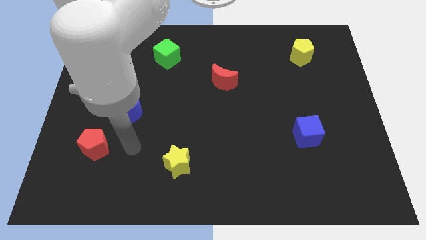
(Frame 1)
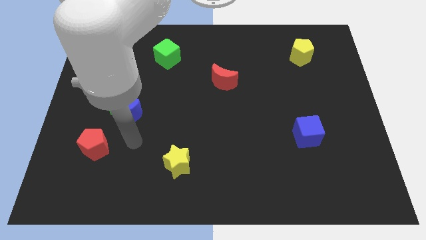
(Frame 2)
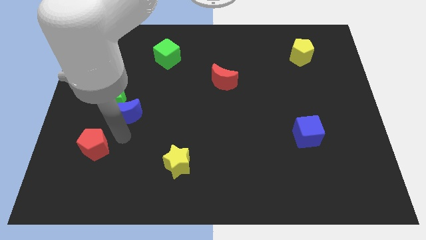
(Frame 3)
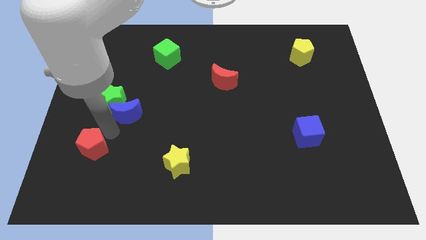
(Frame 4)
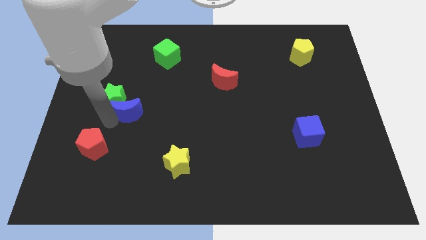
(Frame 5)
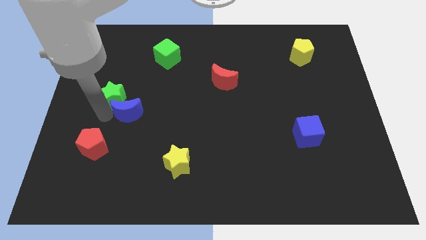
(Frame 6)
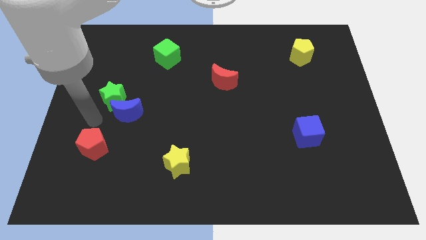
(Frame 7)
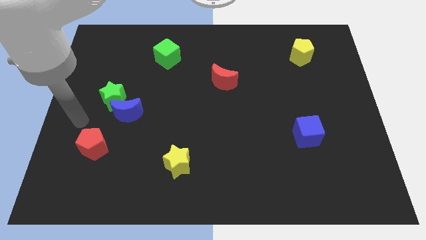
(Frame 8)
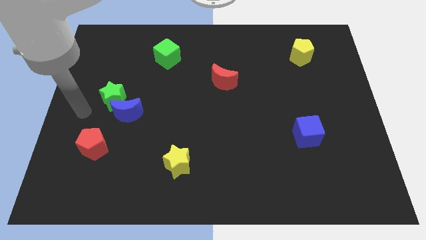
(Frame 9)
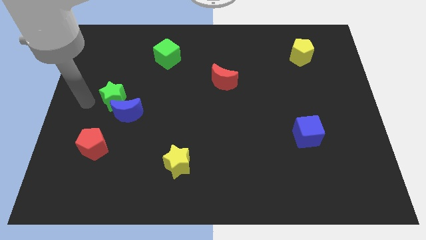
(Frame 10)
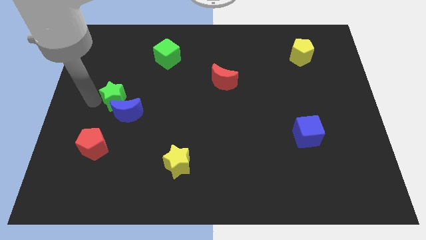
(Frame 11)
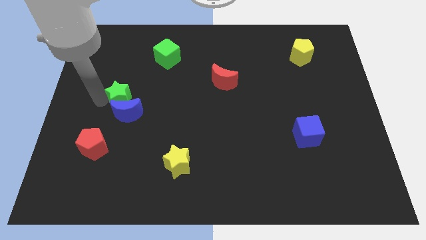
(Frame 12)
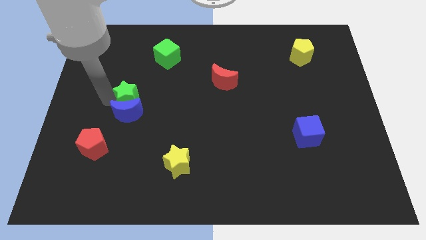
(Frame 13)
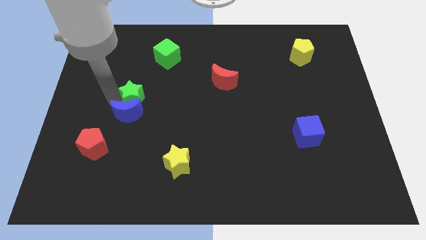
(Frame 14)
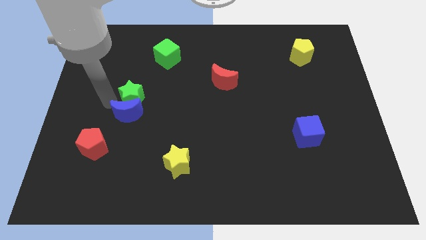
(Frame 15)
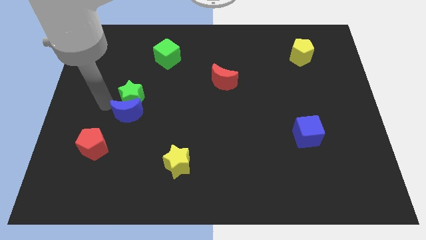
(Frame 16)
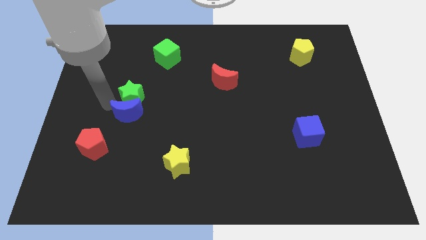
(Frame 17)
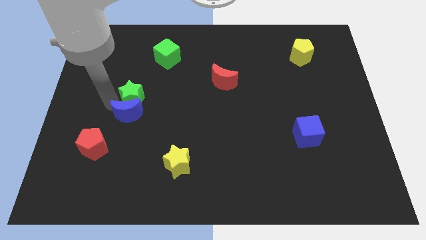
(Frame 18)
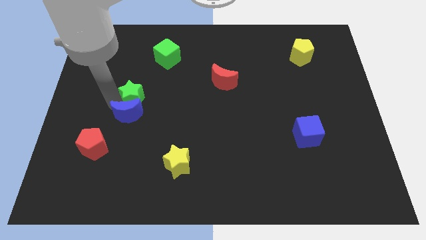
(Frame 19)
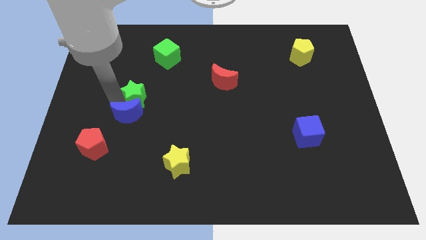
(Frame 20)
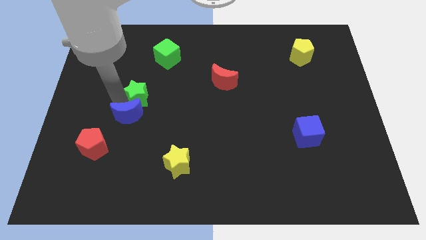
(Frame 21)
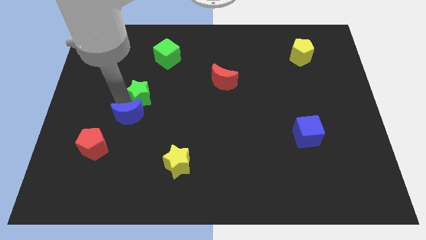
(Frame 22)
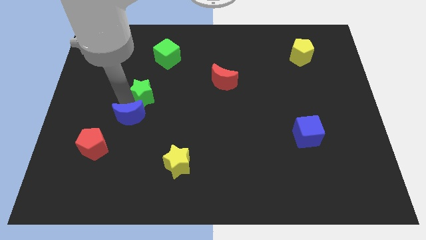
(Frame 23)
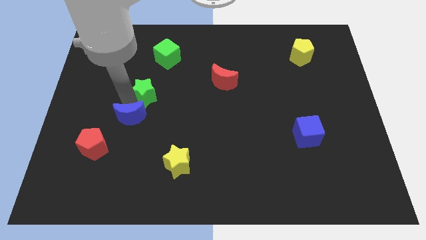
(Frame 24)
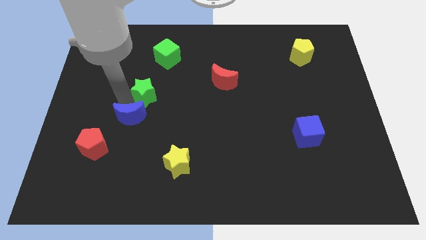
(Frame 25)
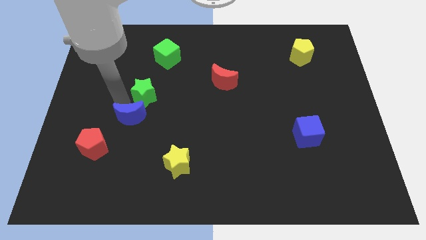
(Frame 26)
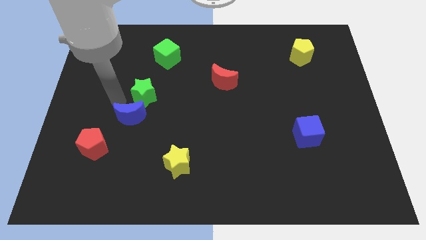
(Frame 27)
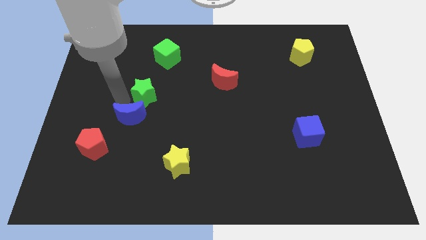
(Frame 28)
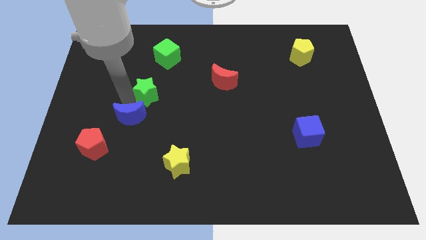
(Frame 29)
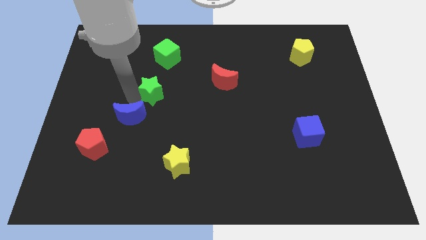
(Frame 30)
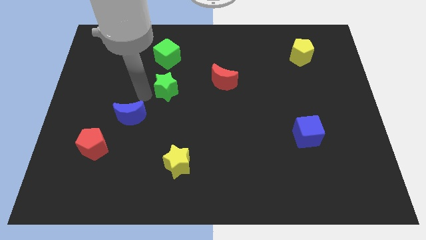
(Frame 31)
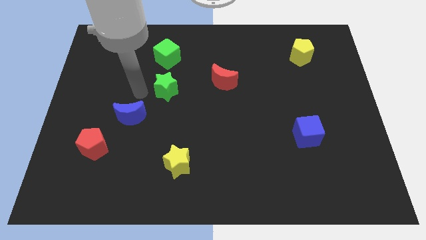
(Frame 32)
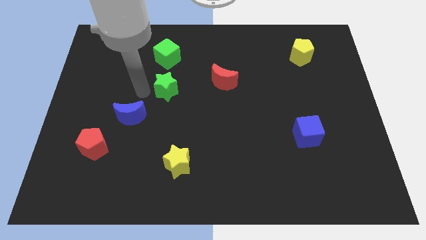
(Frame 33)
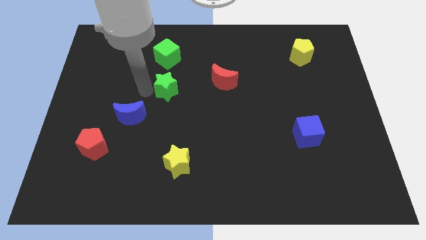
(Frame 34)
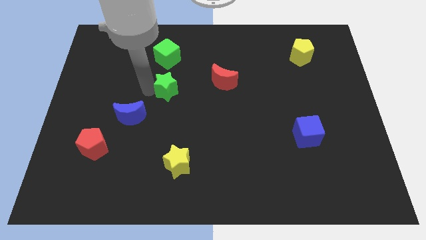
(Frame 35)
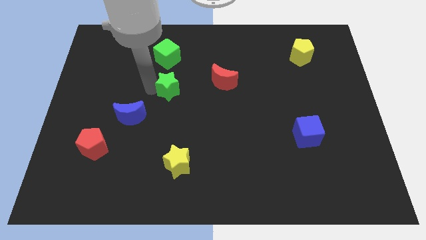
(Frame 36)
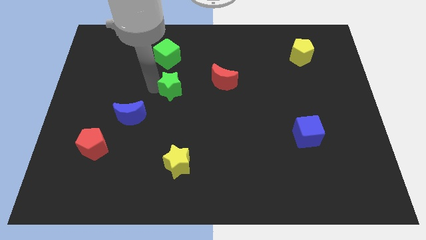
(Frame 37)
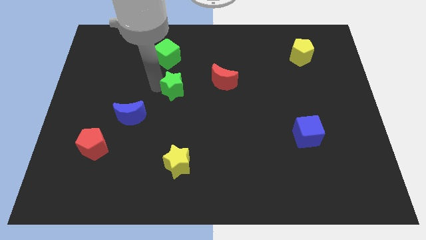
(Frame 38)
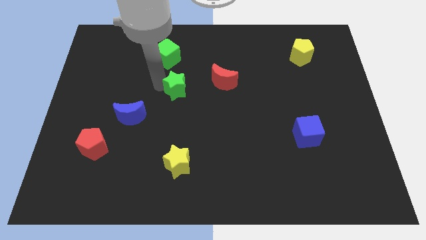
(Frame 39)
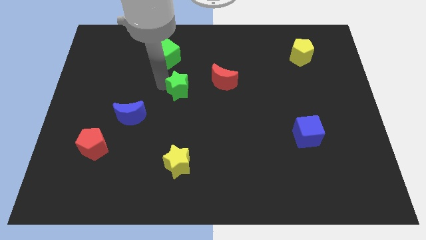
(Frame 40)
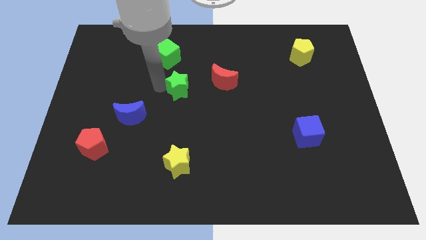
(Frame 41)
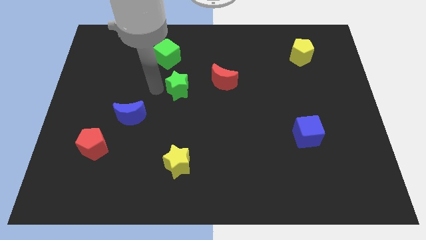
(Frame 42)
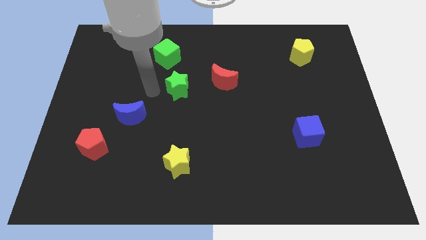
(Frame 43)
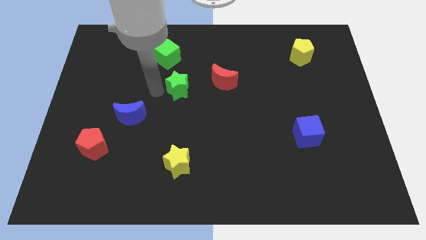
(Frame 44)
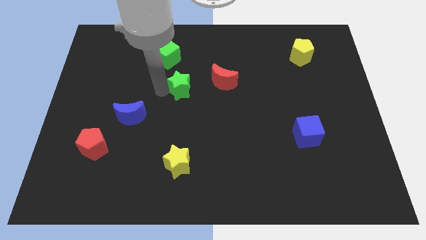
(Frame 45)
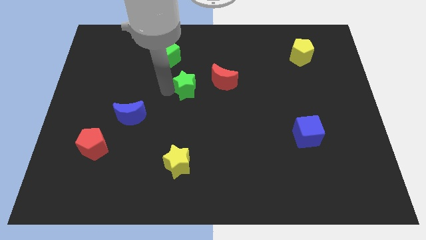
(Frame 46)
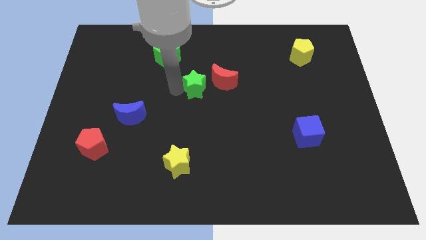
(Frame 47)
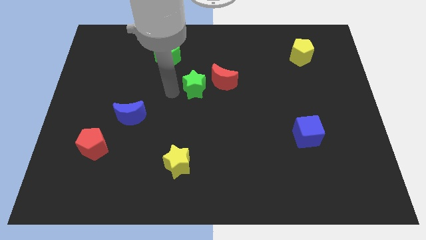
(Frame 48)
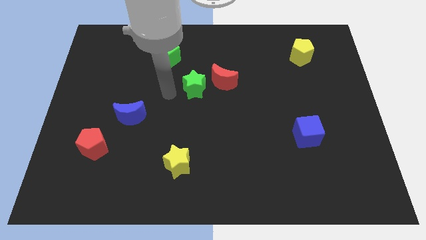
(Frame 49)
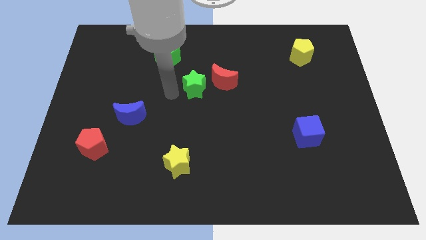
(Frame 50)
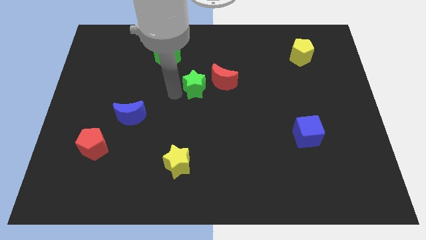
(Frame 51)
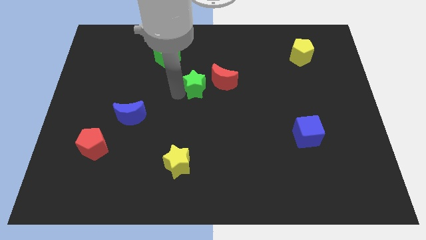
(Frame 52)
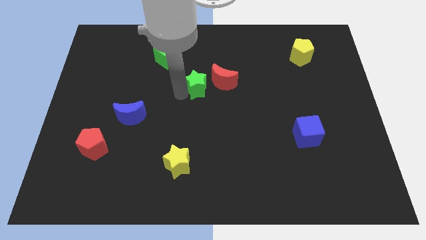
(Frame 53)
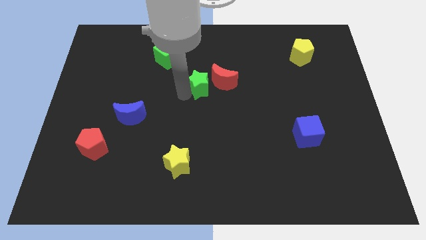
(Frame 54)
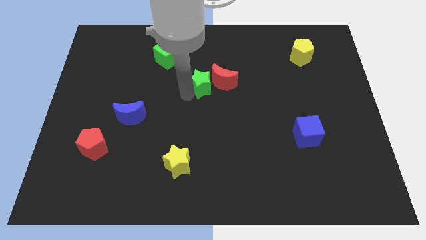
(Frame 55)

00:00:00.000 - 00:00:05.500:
push the green star close to the red moon

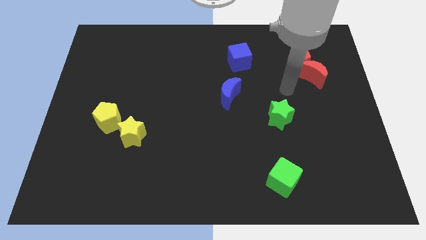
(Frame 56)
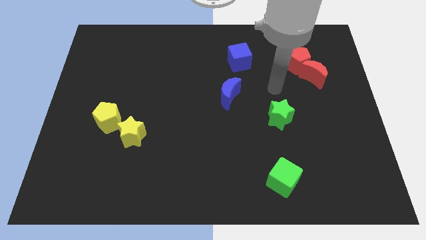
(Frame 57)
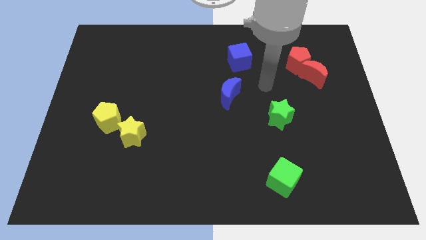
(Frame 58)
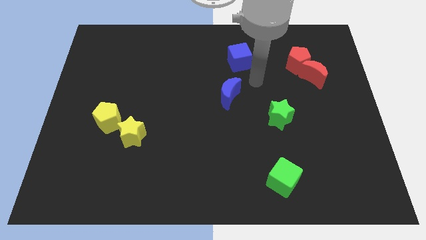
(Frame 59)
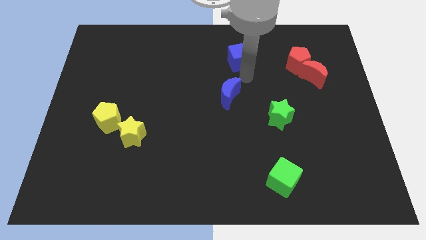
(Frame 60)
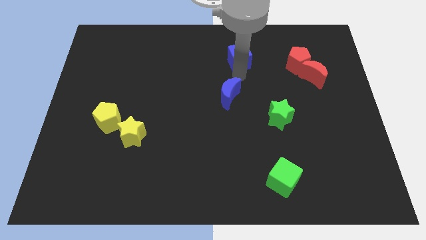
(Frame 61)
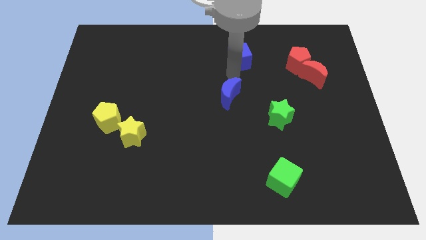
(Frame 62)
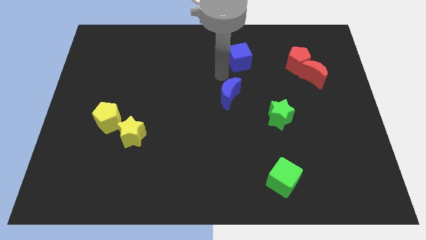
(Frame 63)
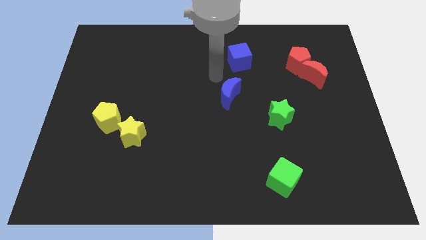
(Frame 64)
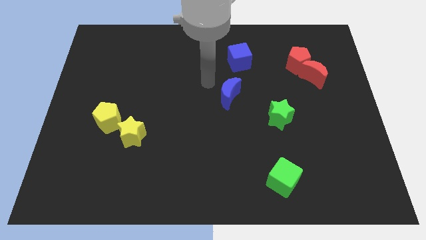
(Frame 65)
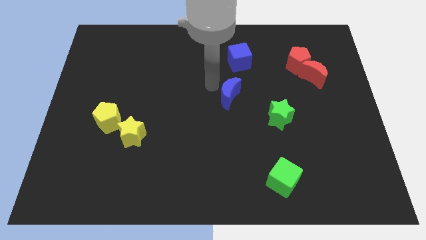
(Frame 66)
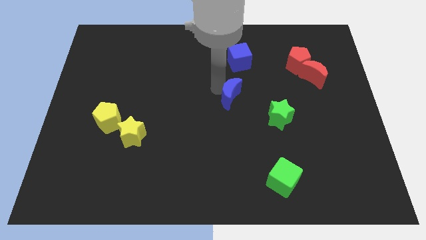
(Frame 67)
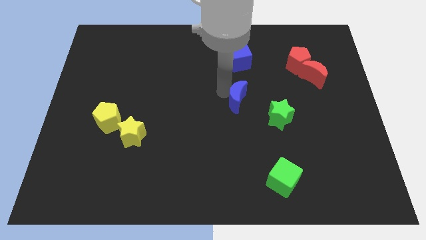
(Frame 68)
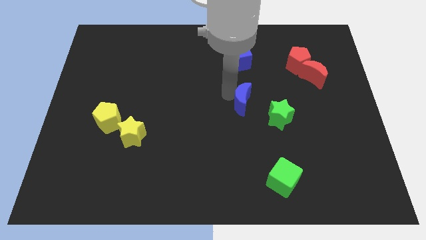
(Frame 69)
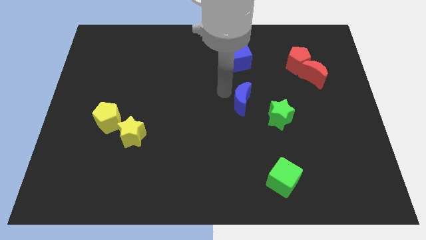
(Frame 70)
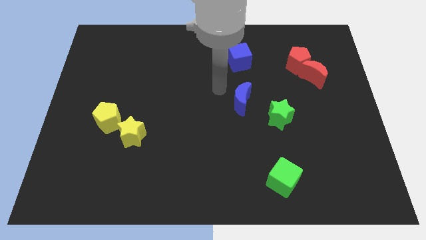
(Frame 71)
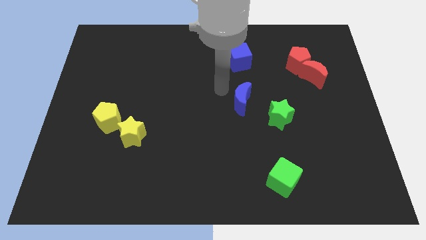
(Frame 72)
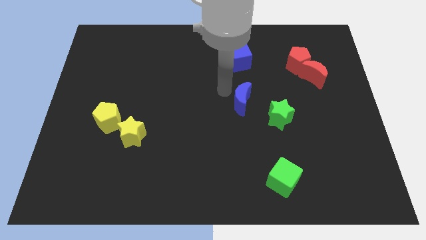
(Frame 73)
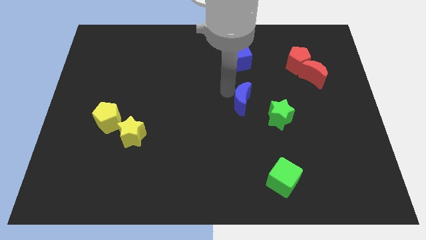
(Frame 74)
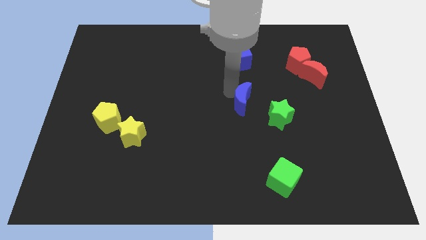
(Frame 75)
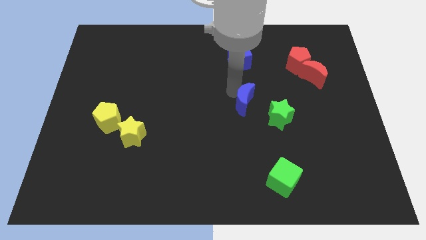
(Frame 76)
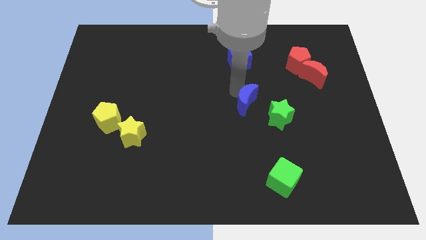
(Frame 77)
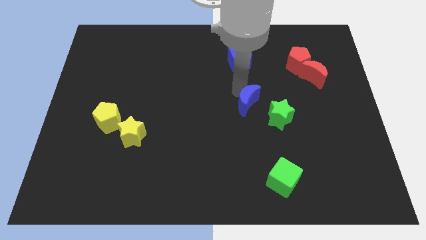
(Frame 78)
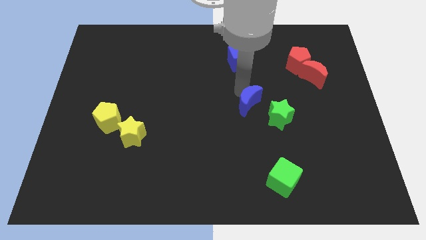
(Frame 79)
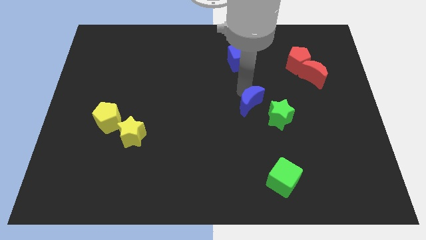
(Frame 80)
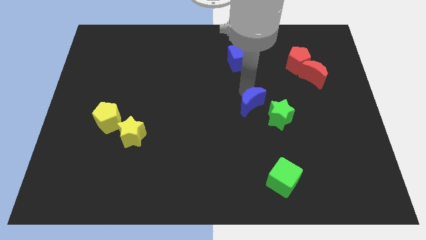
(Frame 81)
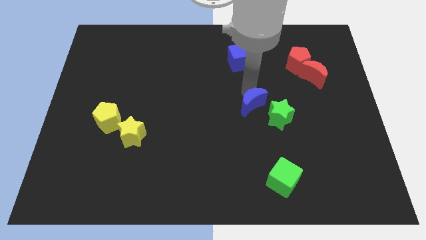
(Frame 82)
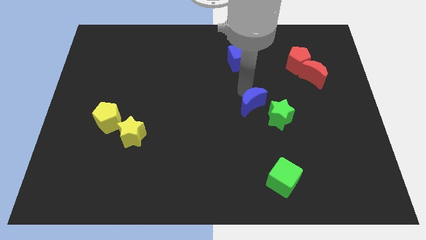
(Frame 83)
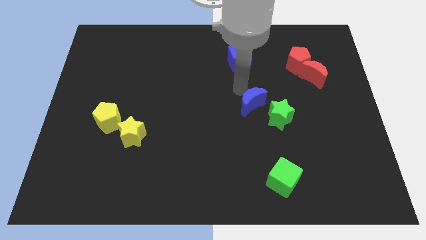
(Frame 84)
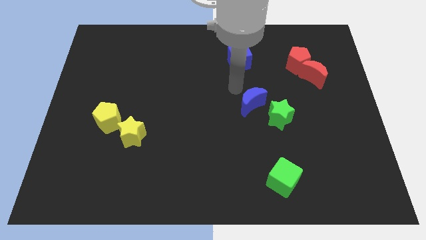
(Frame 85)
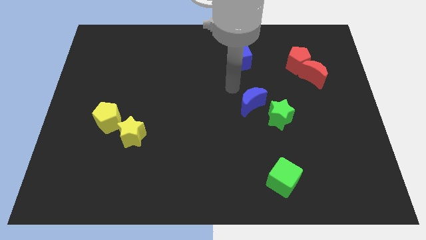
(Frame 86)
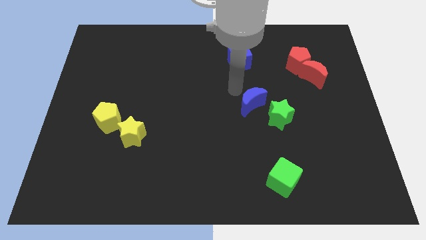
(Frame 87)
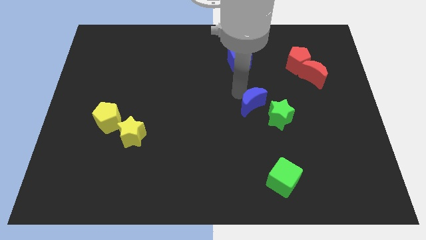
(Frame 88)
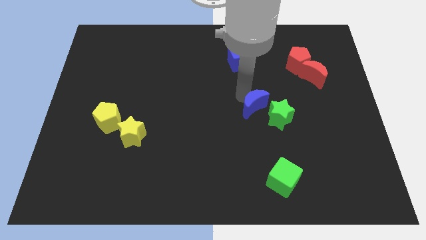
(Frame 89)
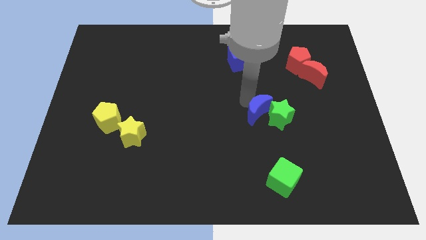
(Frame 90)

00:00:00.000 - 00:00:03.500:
slide the blue moon next to the green star
